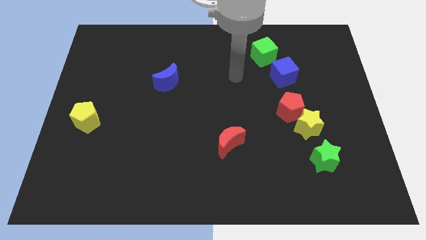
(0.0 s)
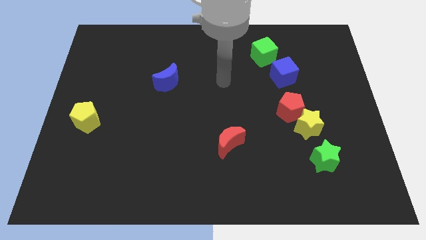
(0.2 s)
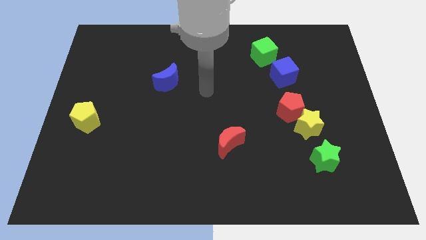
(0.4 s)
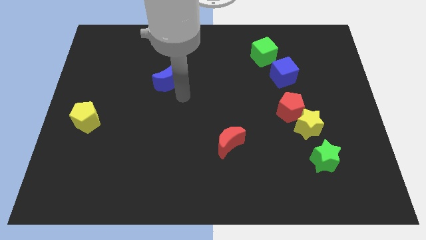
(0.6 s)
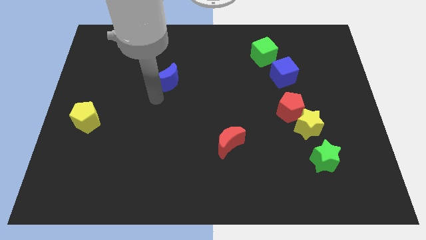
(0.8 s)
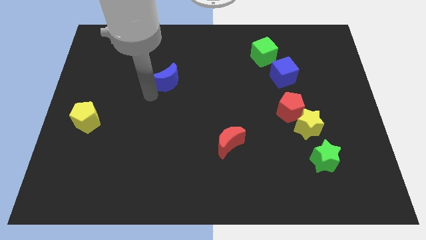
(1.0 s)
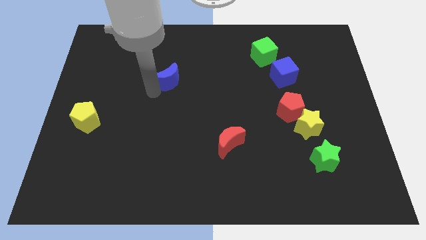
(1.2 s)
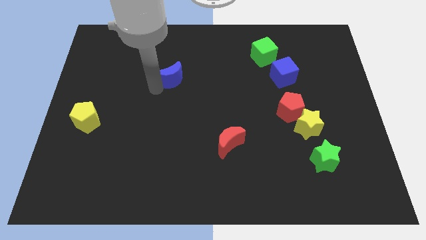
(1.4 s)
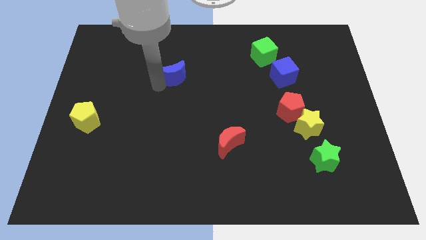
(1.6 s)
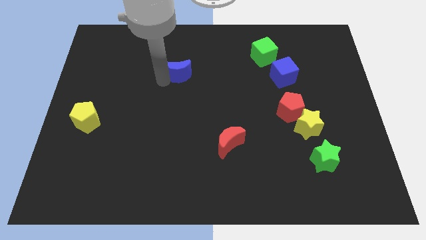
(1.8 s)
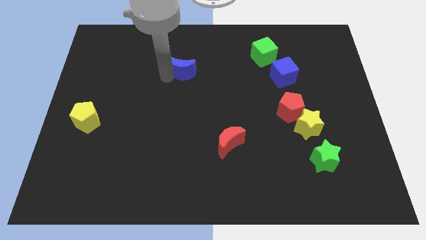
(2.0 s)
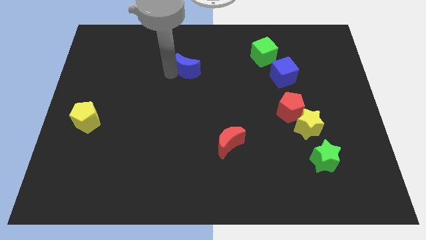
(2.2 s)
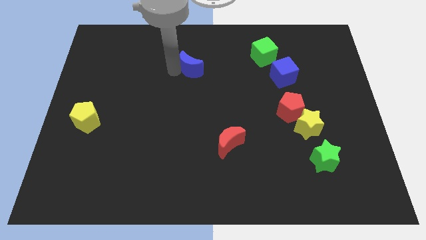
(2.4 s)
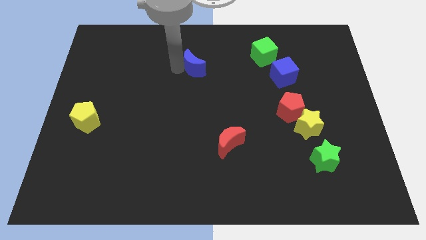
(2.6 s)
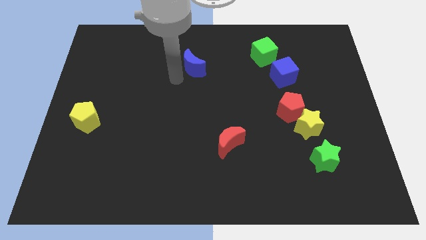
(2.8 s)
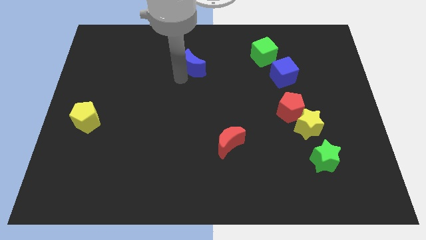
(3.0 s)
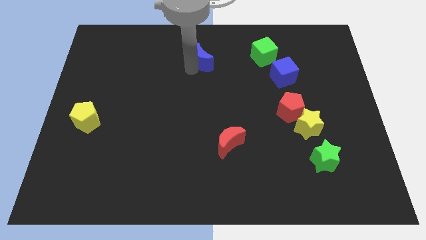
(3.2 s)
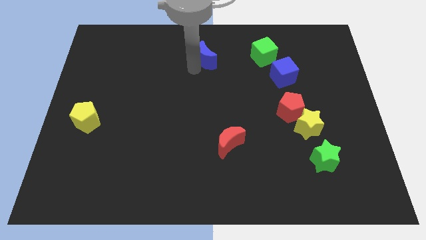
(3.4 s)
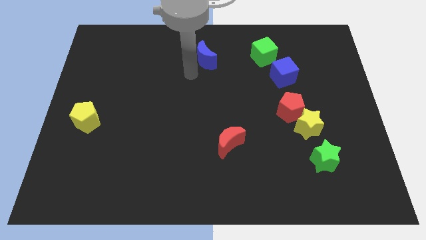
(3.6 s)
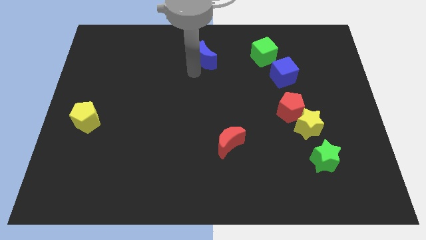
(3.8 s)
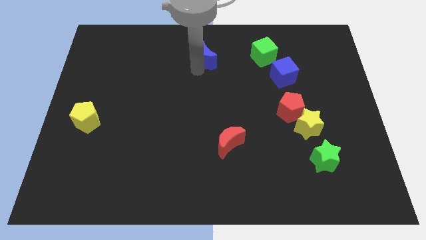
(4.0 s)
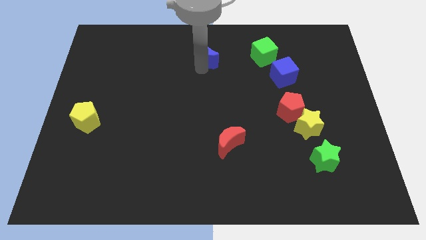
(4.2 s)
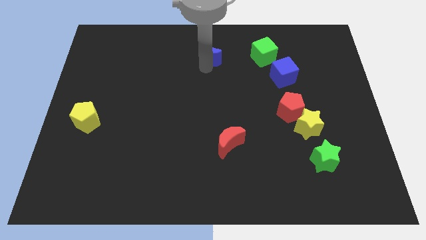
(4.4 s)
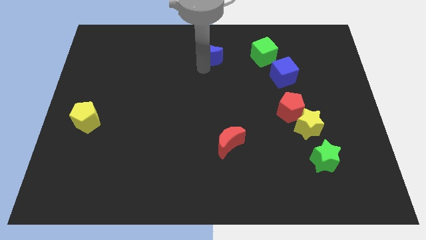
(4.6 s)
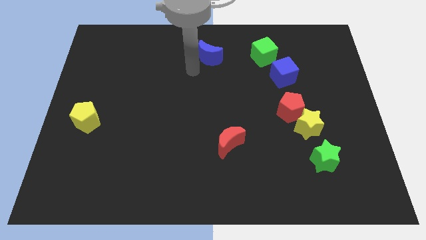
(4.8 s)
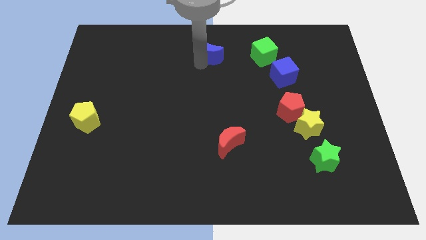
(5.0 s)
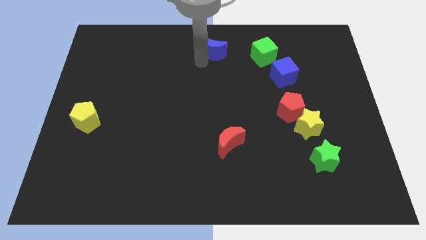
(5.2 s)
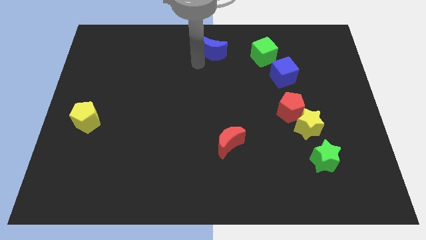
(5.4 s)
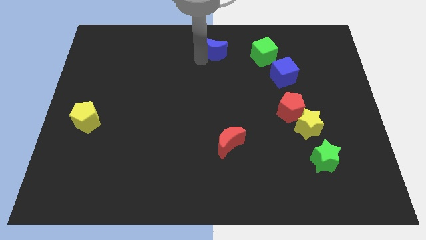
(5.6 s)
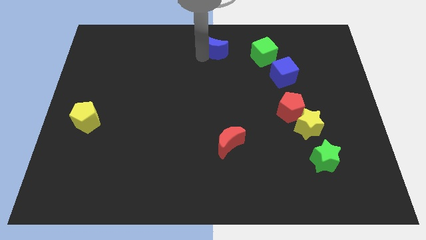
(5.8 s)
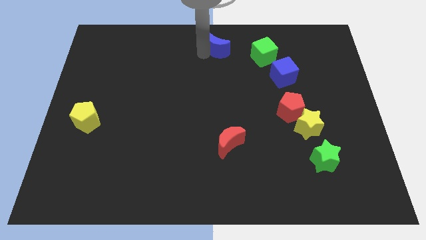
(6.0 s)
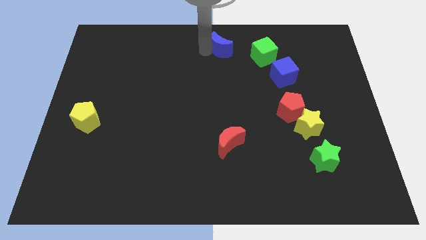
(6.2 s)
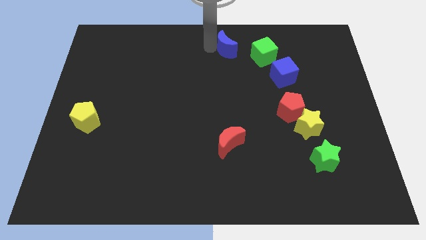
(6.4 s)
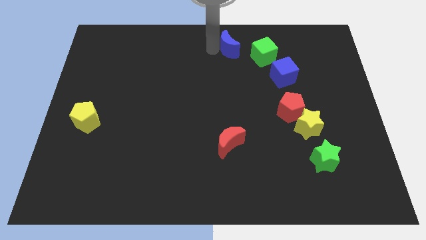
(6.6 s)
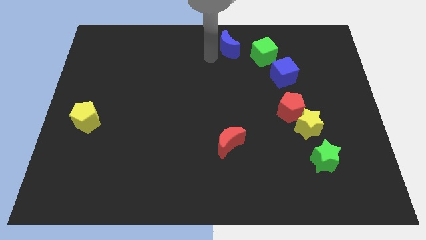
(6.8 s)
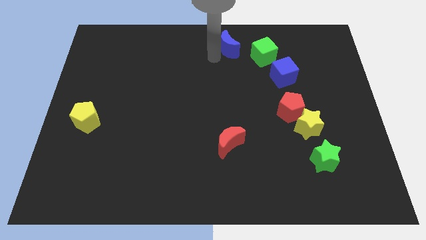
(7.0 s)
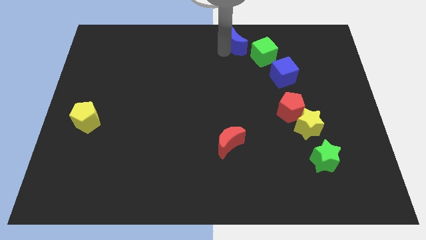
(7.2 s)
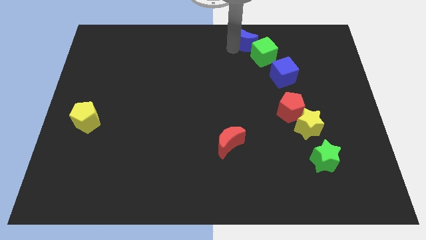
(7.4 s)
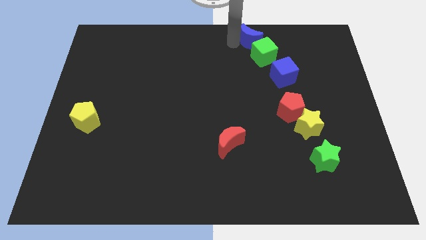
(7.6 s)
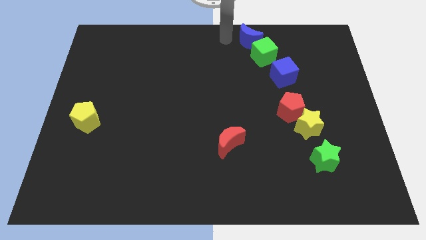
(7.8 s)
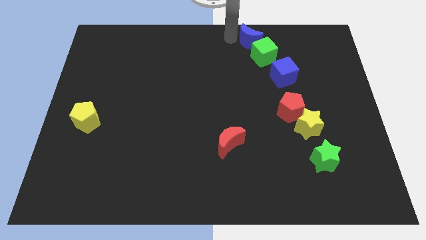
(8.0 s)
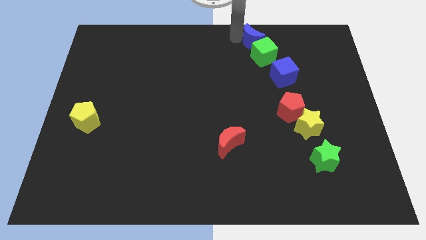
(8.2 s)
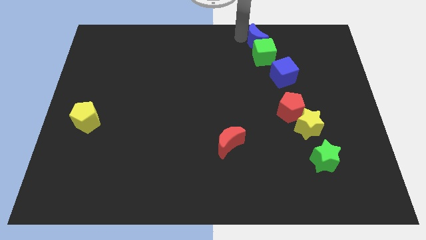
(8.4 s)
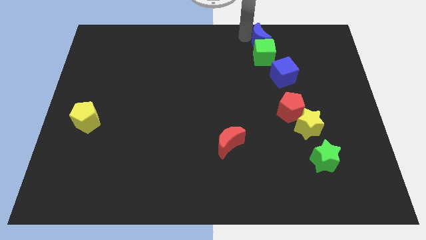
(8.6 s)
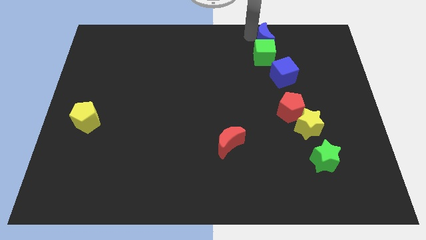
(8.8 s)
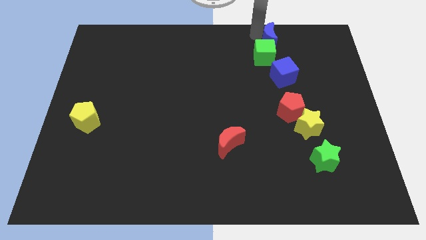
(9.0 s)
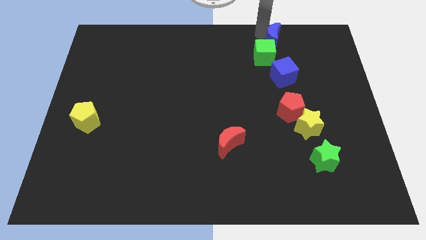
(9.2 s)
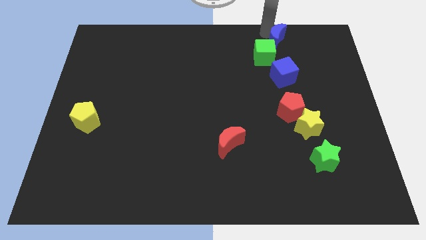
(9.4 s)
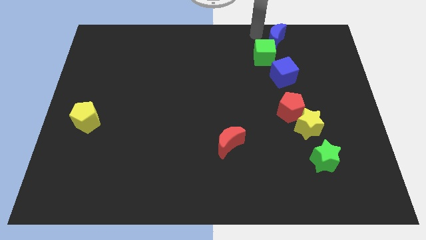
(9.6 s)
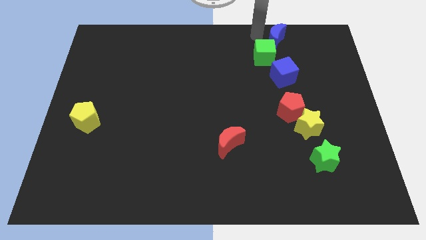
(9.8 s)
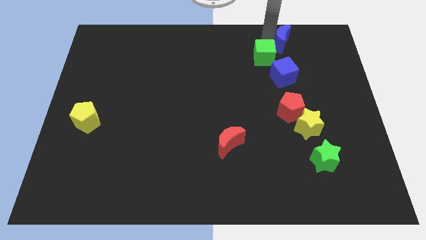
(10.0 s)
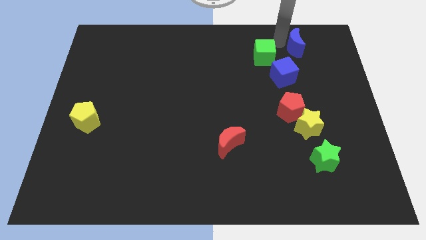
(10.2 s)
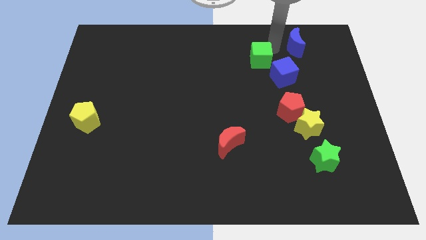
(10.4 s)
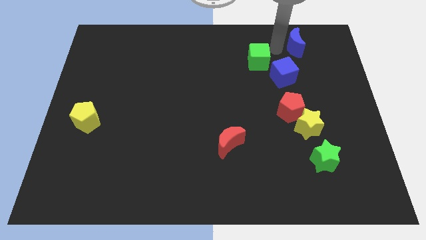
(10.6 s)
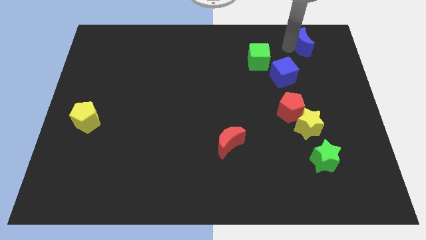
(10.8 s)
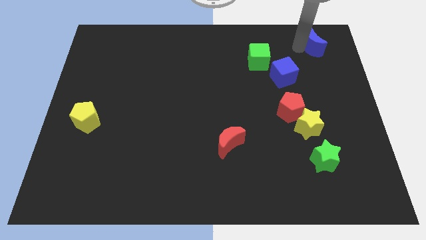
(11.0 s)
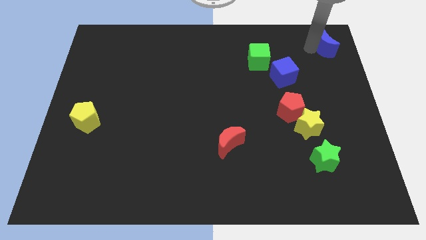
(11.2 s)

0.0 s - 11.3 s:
move the blue moon to the upper right corner
